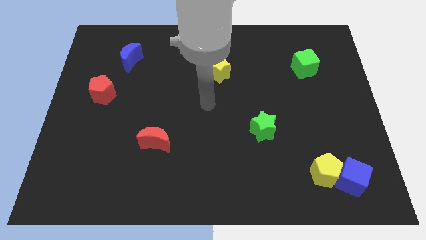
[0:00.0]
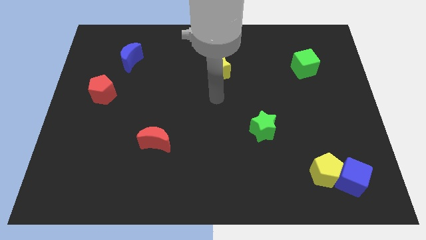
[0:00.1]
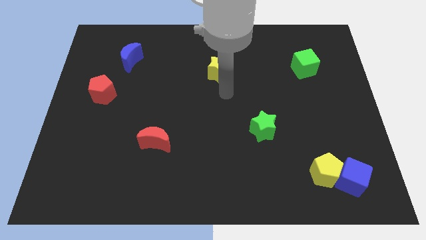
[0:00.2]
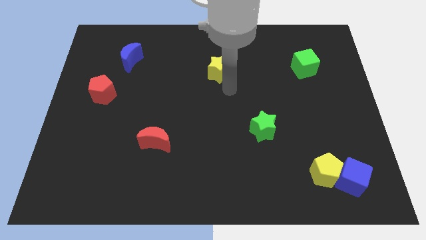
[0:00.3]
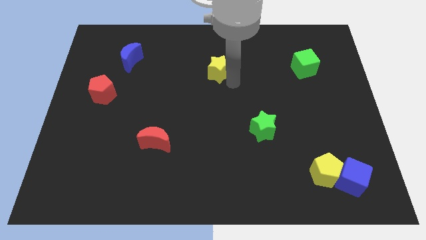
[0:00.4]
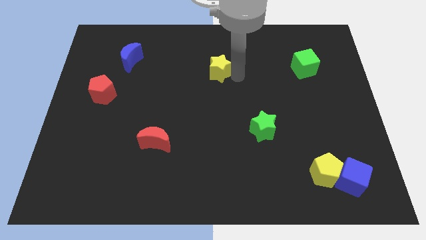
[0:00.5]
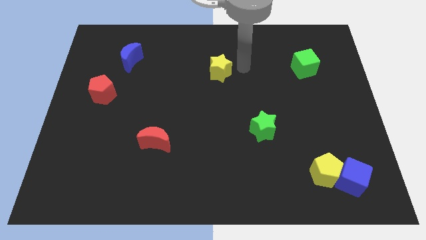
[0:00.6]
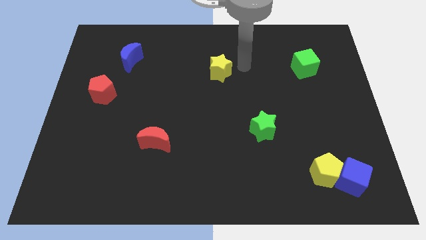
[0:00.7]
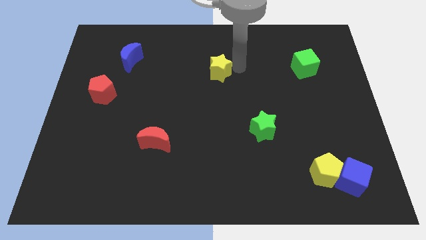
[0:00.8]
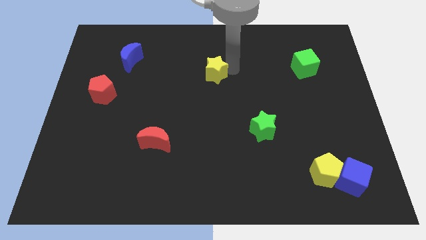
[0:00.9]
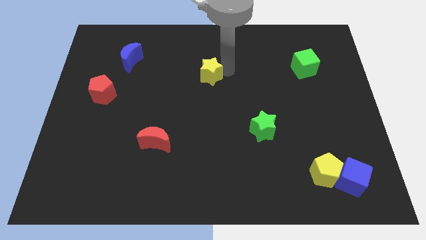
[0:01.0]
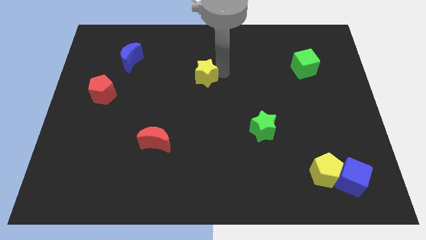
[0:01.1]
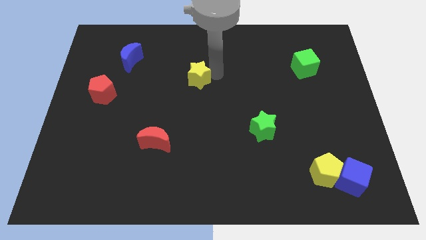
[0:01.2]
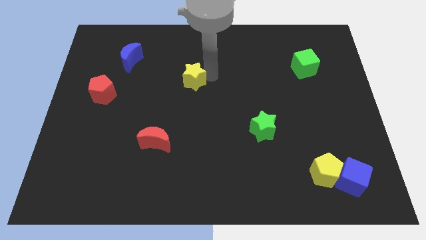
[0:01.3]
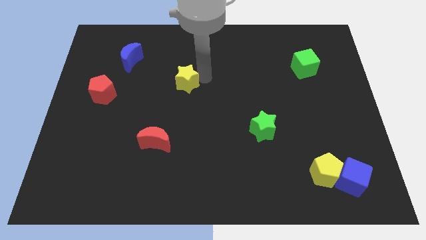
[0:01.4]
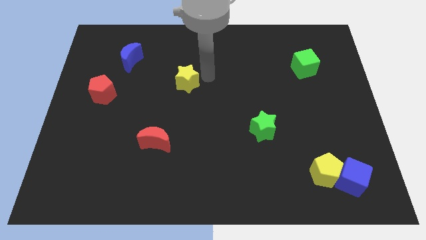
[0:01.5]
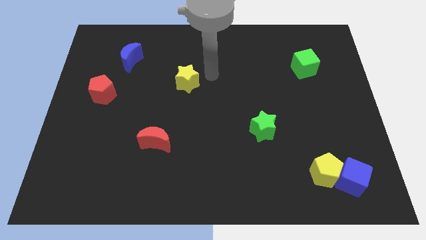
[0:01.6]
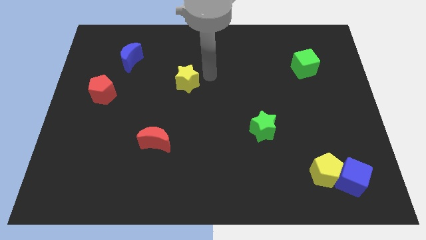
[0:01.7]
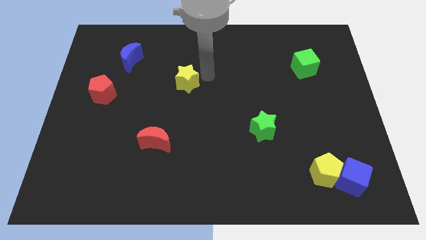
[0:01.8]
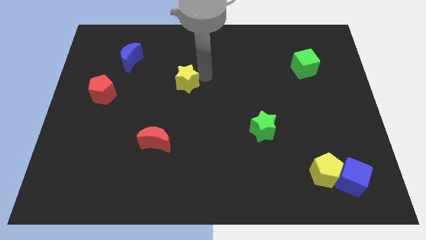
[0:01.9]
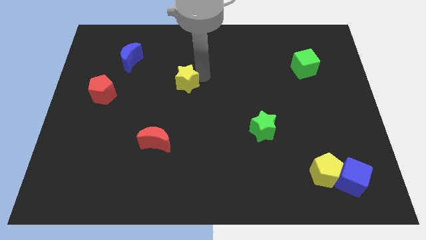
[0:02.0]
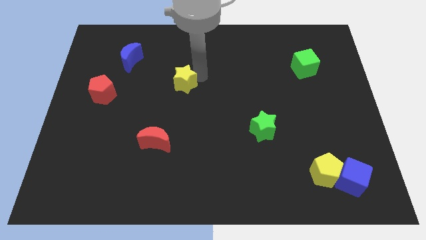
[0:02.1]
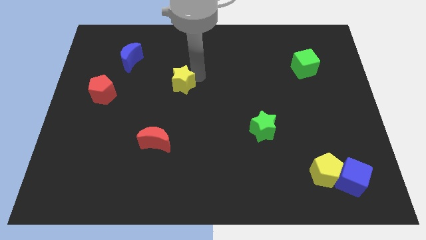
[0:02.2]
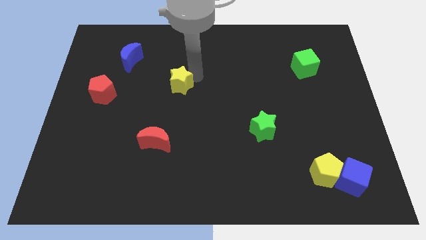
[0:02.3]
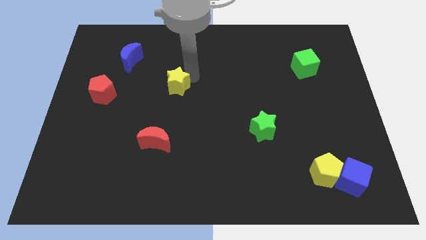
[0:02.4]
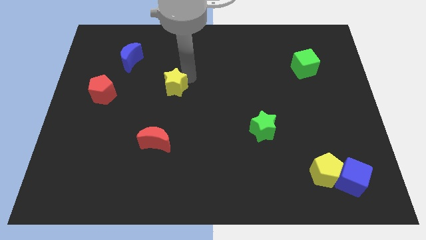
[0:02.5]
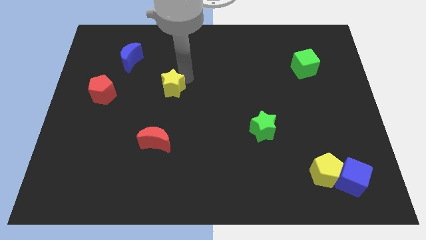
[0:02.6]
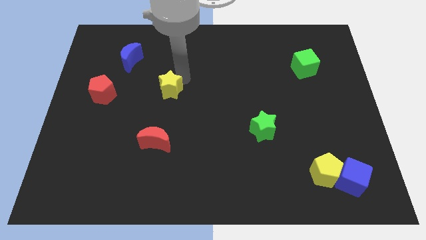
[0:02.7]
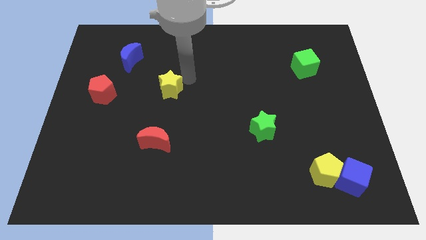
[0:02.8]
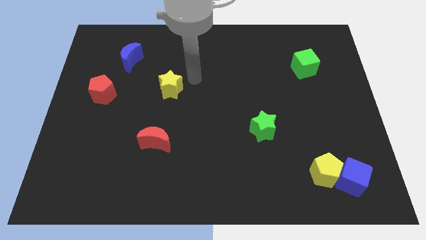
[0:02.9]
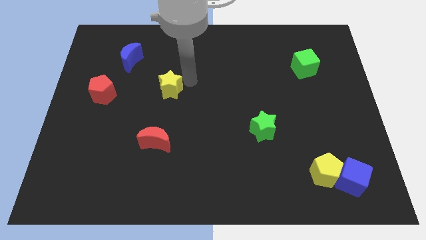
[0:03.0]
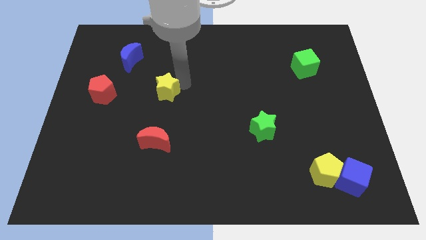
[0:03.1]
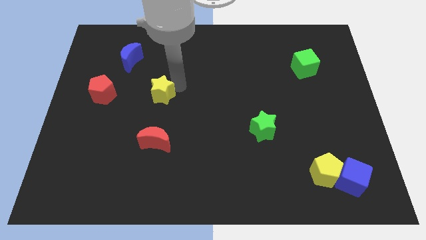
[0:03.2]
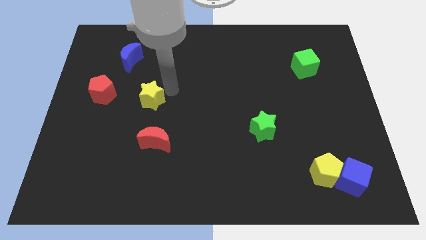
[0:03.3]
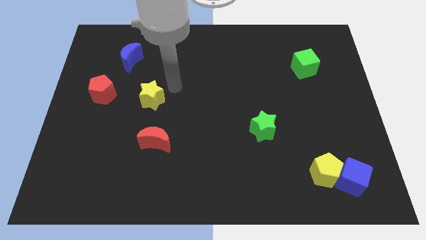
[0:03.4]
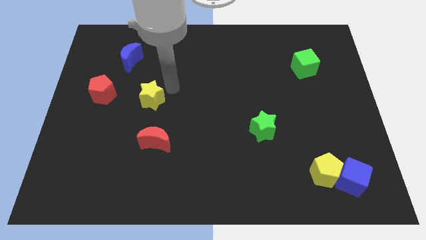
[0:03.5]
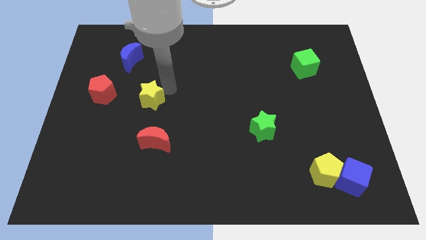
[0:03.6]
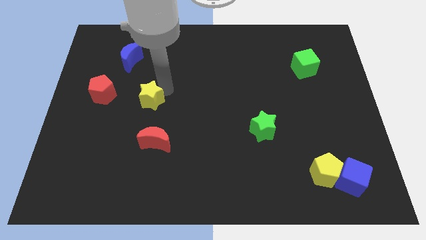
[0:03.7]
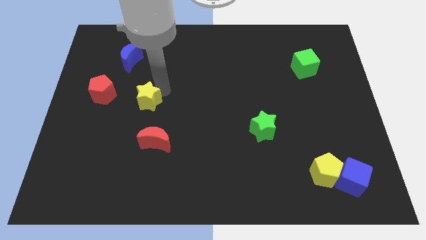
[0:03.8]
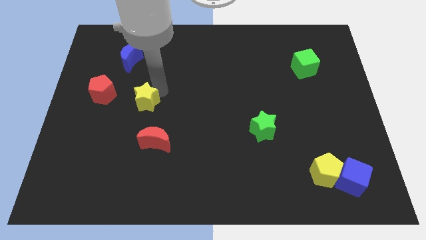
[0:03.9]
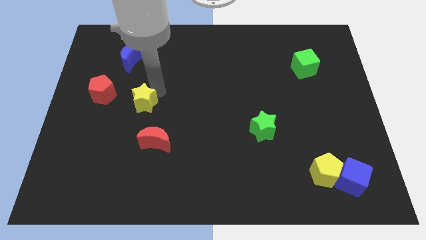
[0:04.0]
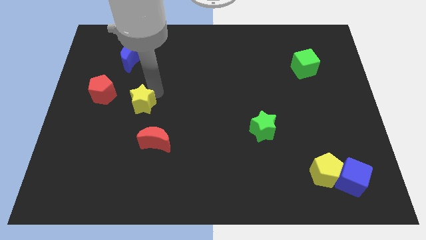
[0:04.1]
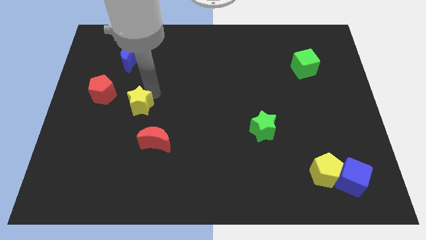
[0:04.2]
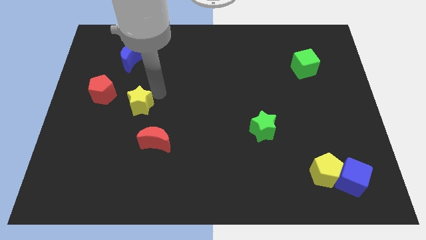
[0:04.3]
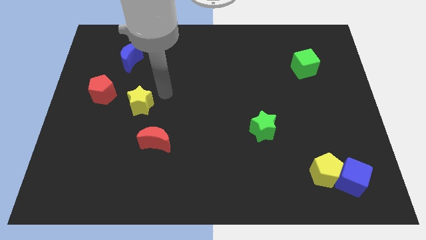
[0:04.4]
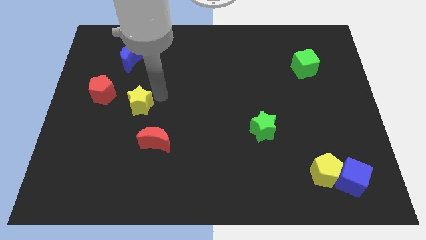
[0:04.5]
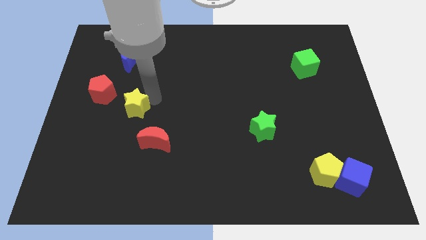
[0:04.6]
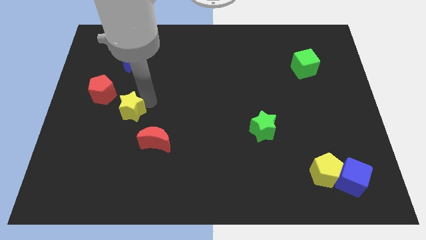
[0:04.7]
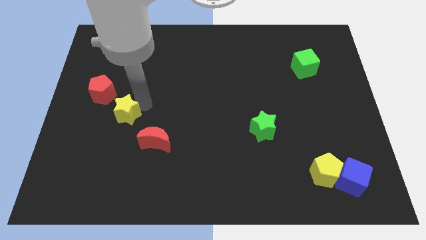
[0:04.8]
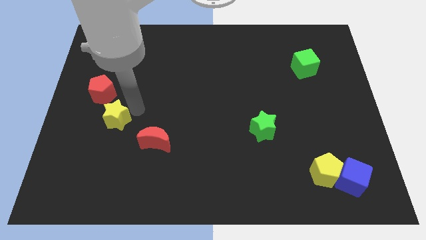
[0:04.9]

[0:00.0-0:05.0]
move the yellow star below the red pentagon

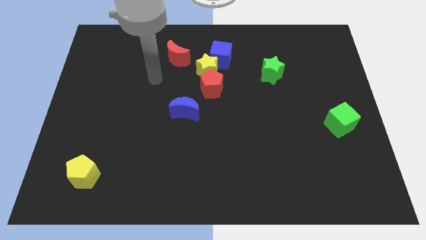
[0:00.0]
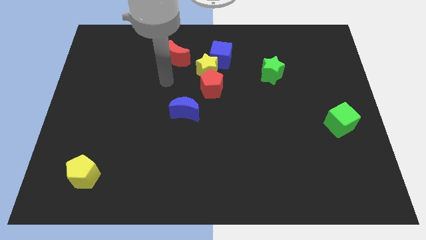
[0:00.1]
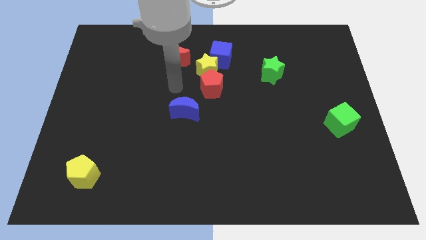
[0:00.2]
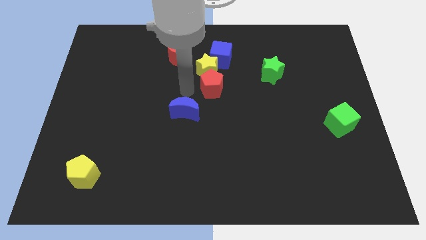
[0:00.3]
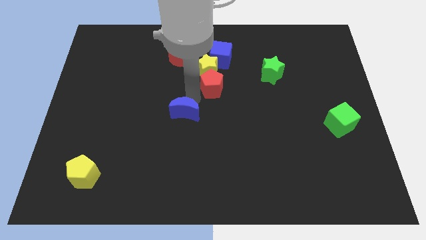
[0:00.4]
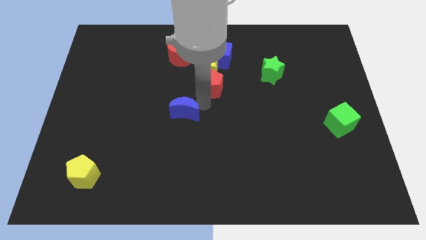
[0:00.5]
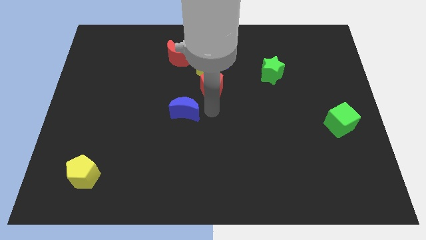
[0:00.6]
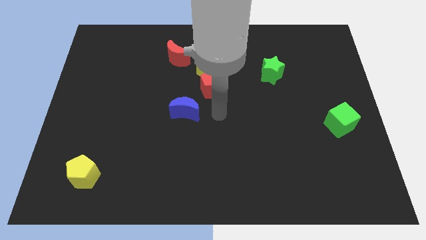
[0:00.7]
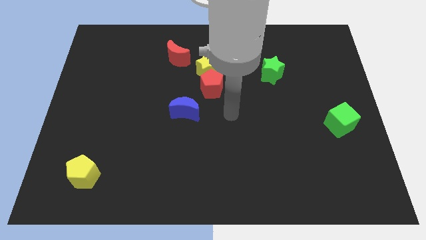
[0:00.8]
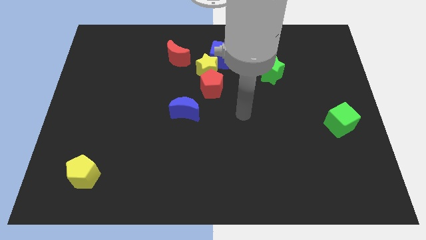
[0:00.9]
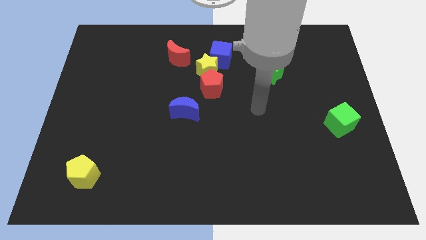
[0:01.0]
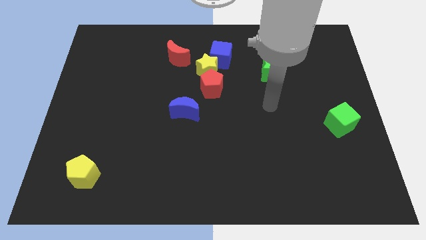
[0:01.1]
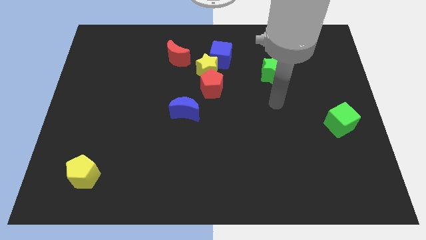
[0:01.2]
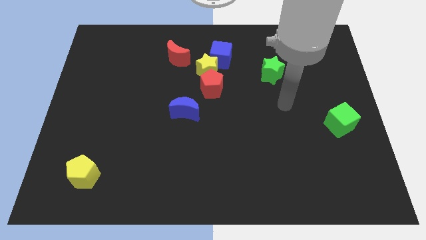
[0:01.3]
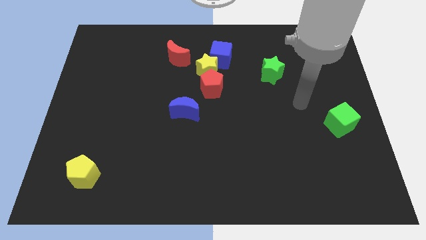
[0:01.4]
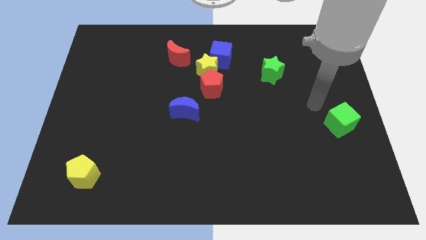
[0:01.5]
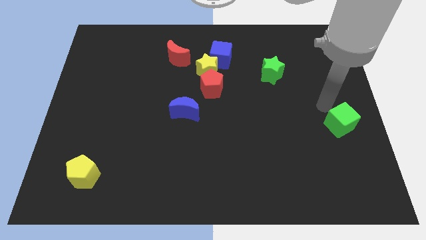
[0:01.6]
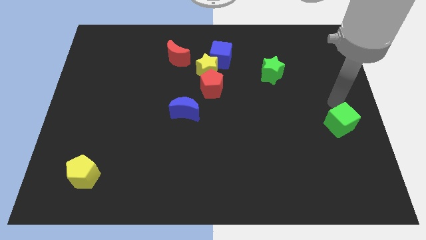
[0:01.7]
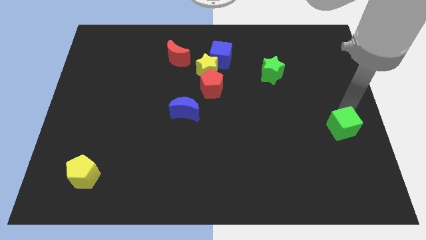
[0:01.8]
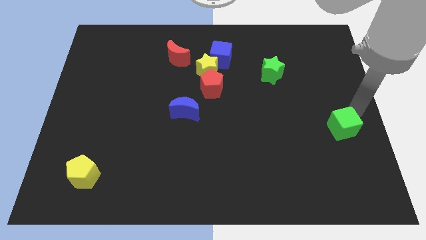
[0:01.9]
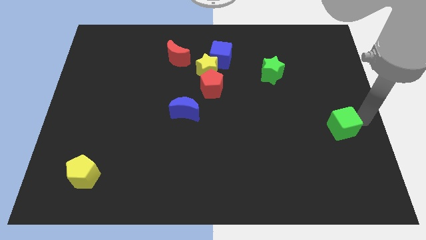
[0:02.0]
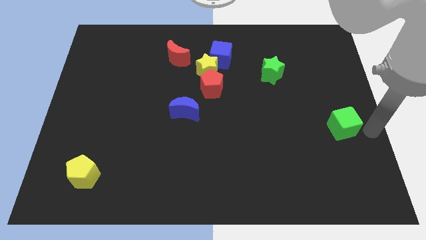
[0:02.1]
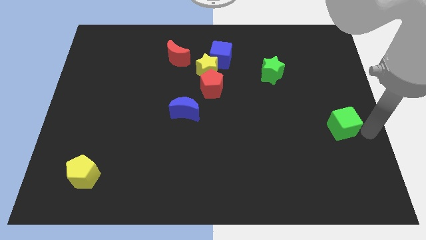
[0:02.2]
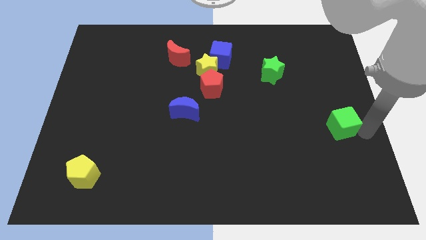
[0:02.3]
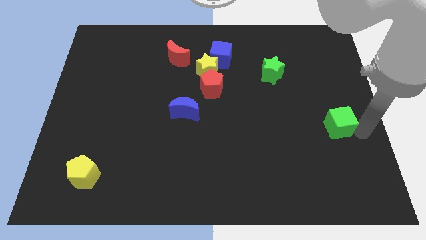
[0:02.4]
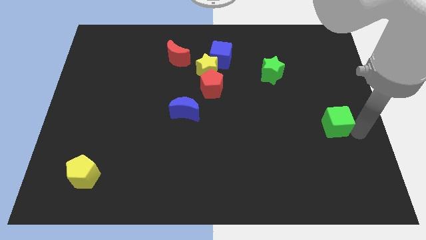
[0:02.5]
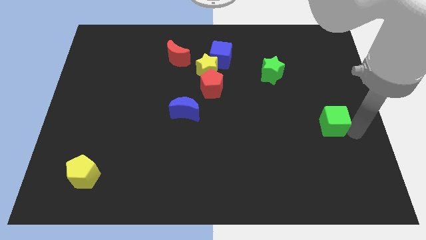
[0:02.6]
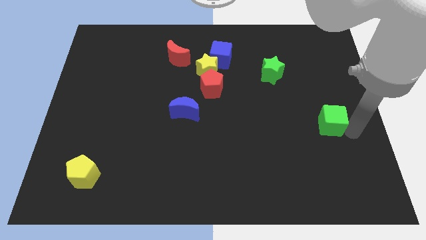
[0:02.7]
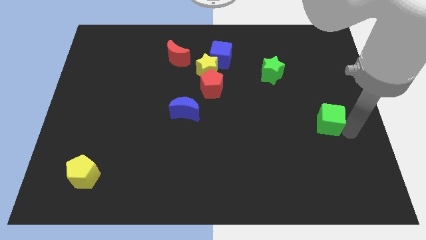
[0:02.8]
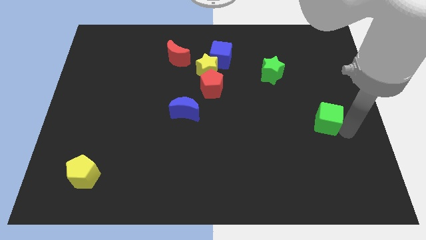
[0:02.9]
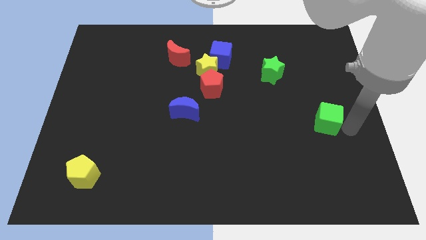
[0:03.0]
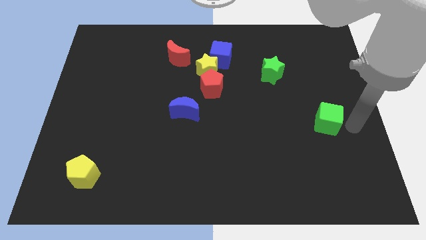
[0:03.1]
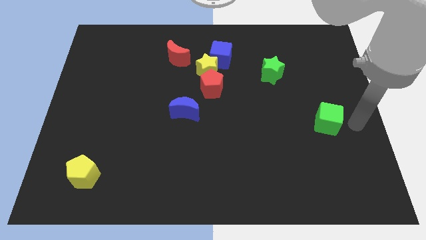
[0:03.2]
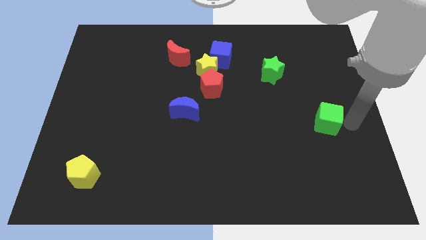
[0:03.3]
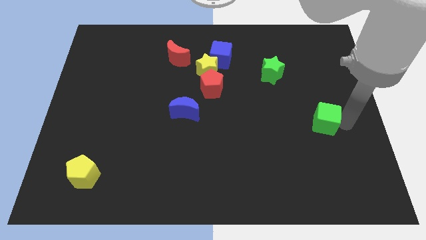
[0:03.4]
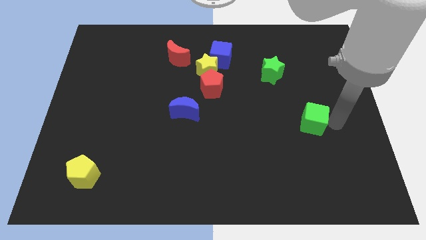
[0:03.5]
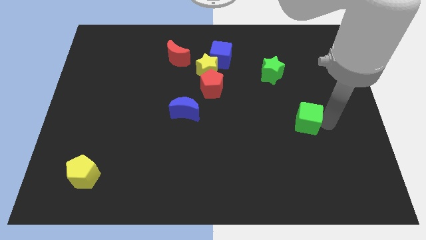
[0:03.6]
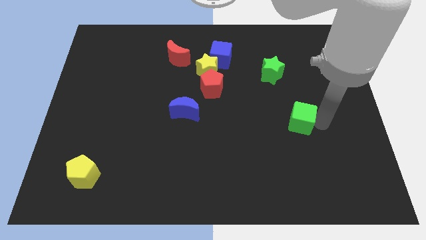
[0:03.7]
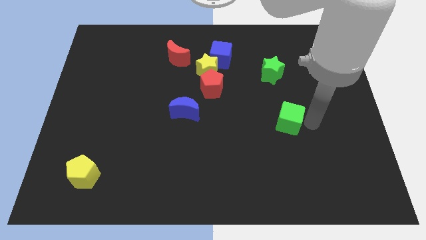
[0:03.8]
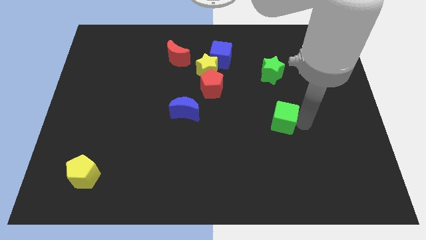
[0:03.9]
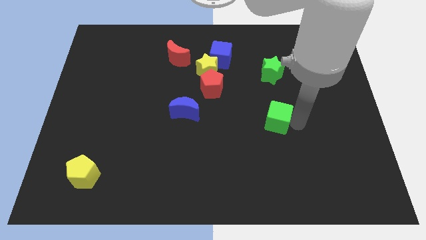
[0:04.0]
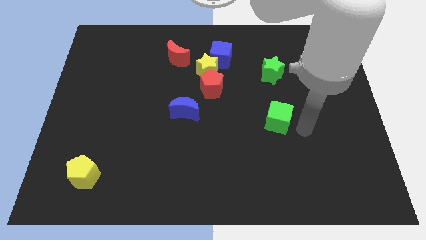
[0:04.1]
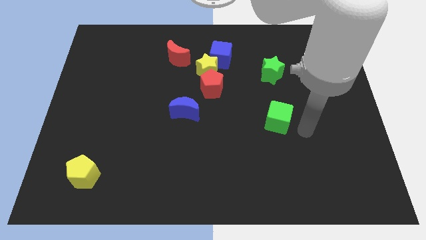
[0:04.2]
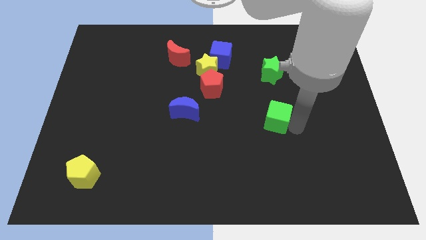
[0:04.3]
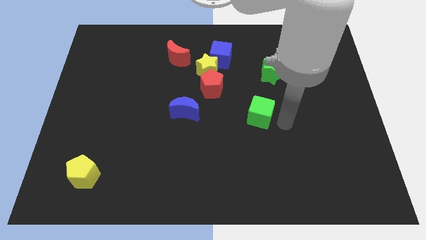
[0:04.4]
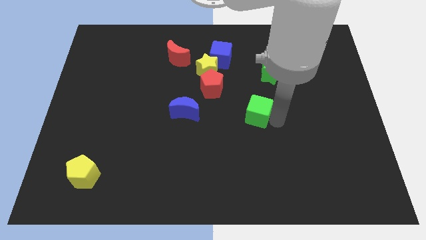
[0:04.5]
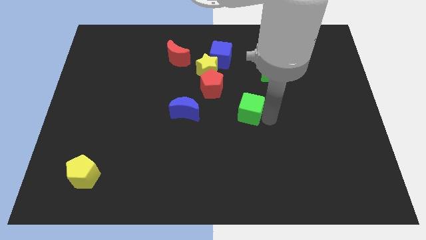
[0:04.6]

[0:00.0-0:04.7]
put the green cube to the bottom right of the red pentagon
